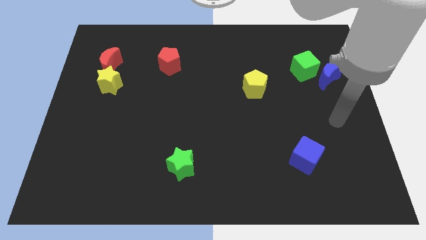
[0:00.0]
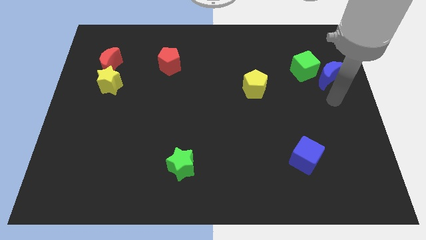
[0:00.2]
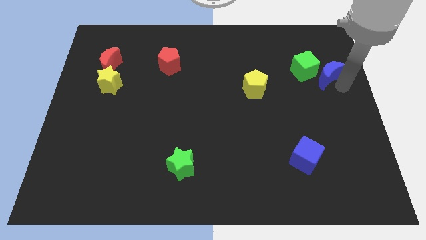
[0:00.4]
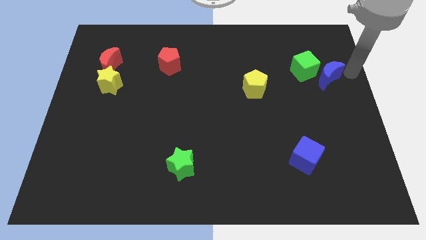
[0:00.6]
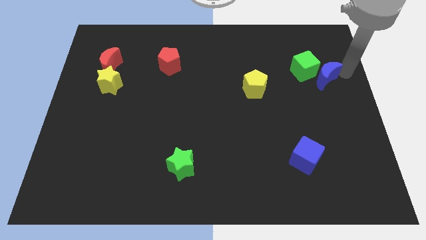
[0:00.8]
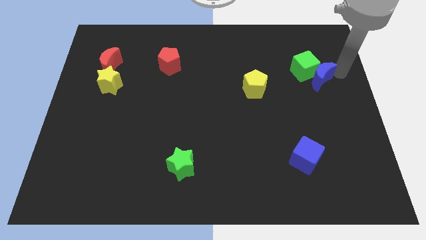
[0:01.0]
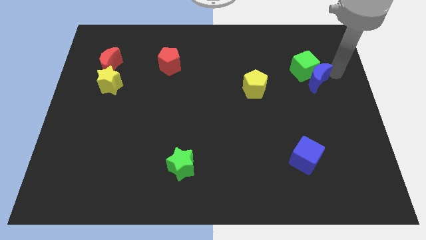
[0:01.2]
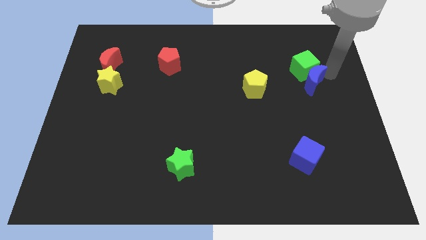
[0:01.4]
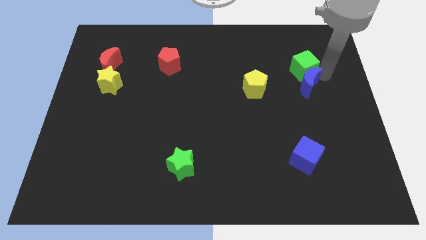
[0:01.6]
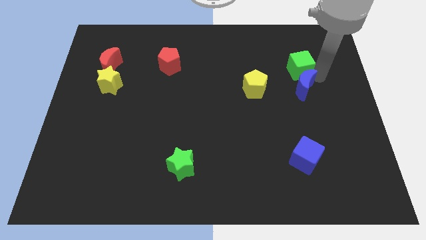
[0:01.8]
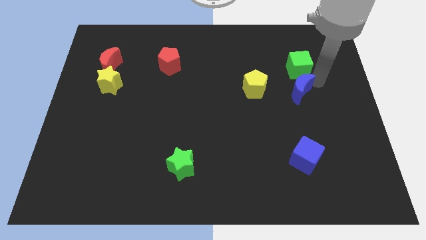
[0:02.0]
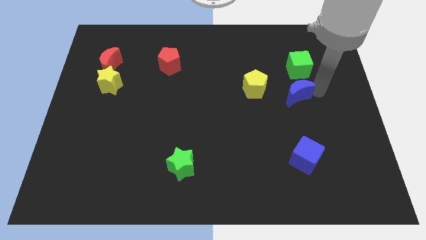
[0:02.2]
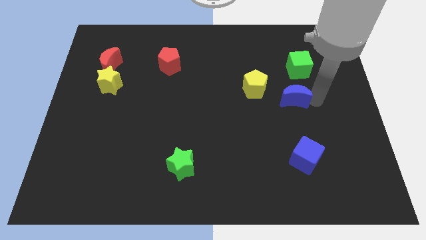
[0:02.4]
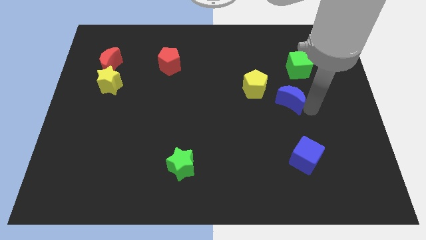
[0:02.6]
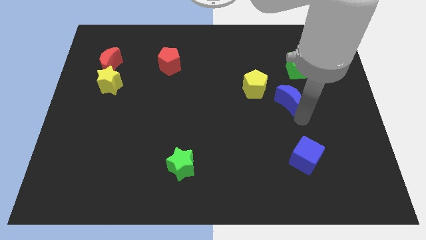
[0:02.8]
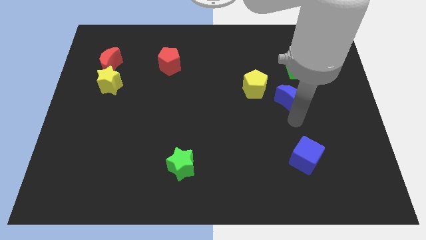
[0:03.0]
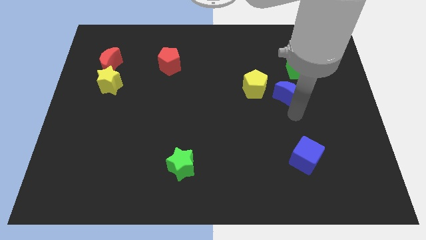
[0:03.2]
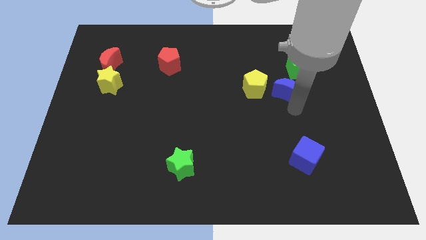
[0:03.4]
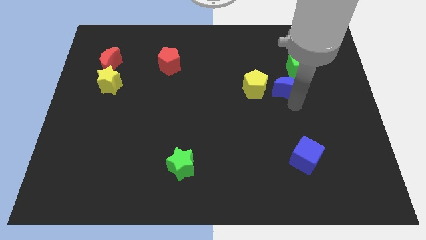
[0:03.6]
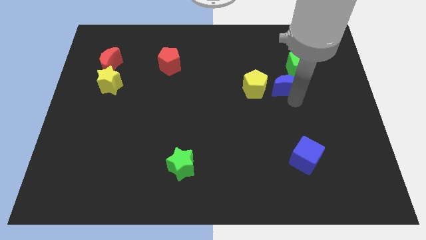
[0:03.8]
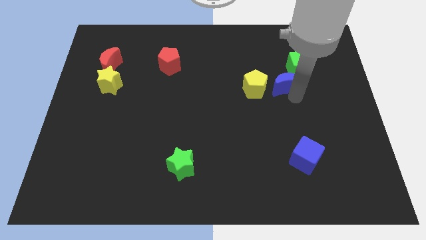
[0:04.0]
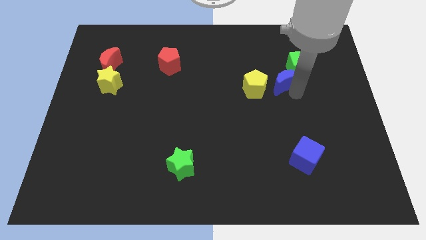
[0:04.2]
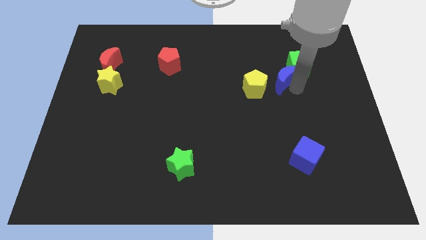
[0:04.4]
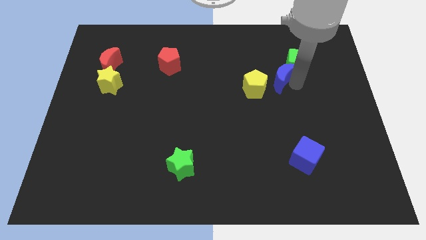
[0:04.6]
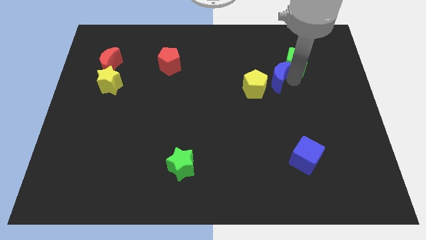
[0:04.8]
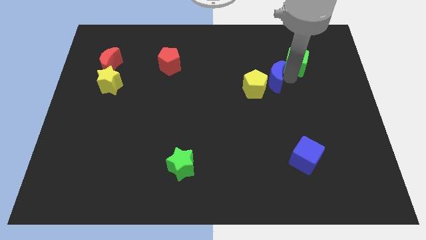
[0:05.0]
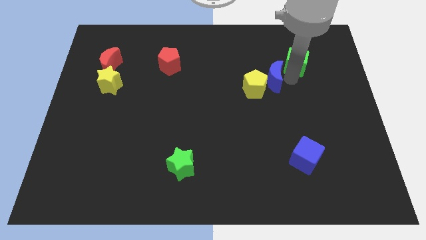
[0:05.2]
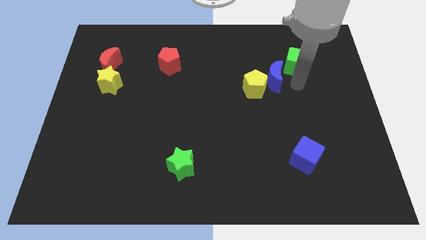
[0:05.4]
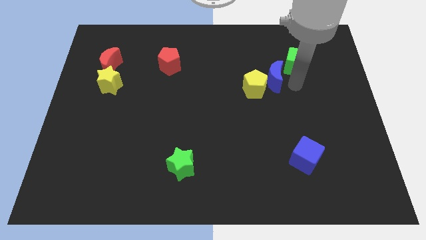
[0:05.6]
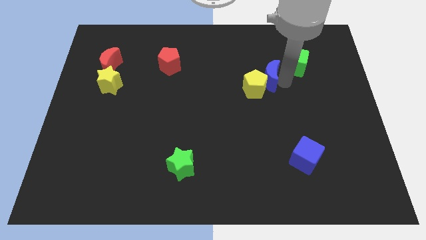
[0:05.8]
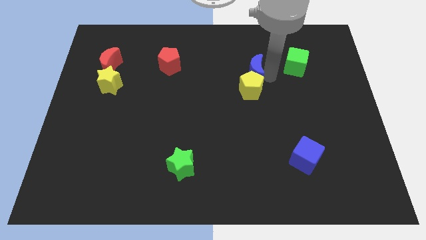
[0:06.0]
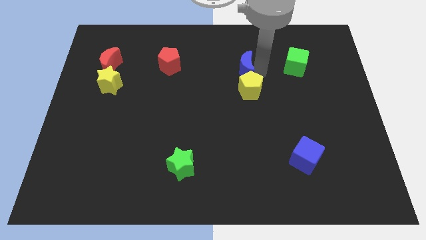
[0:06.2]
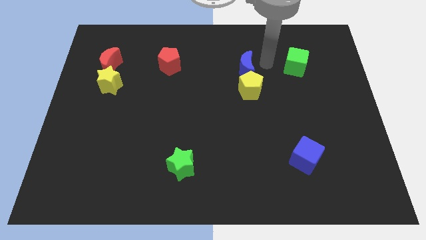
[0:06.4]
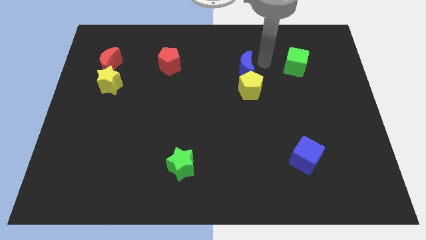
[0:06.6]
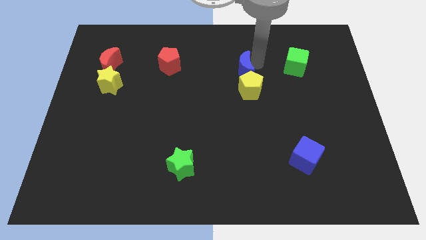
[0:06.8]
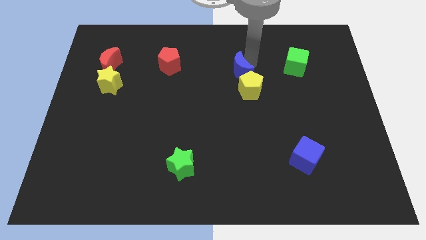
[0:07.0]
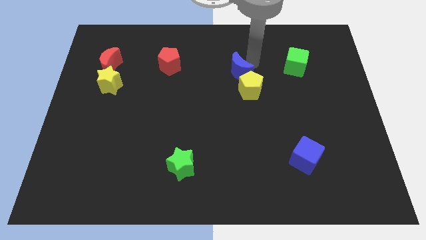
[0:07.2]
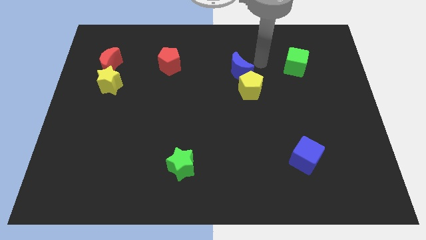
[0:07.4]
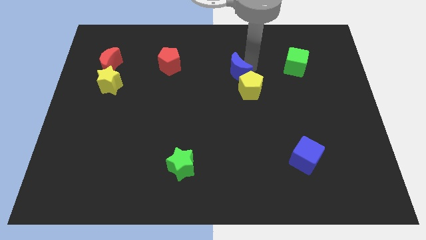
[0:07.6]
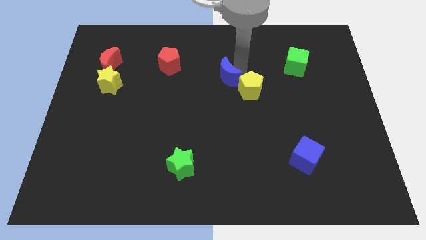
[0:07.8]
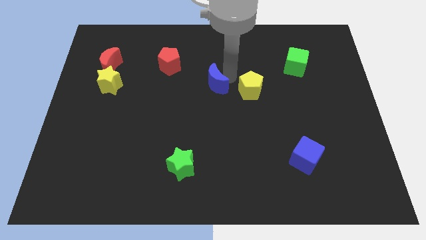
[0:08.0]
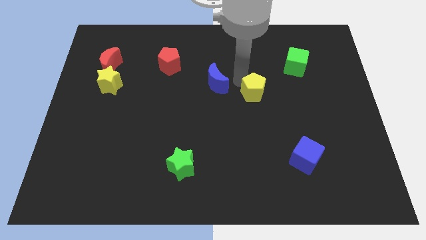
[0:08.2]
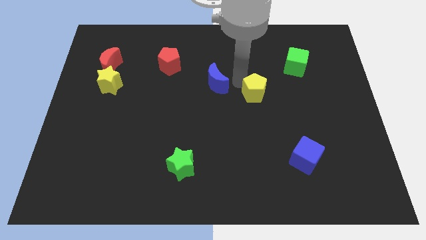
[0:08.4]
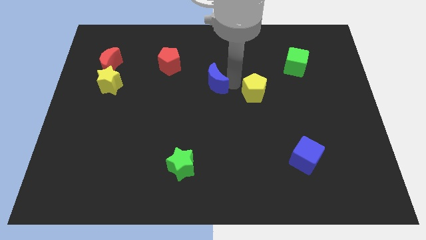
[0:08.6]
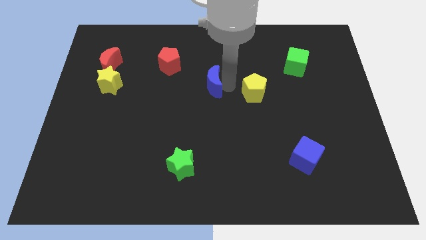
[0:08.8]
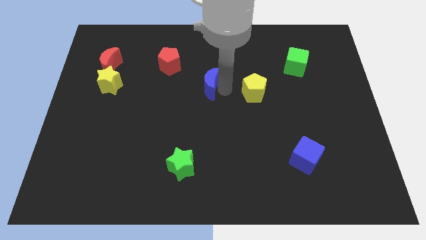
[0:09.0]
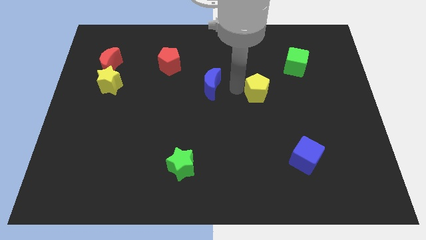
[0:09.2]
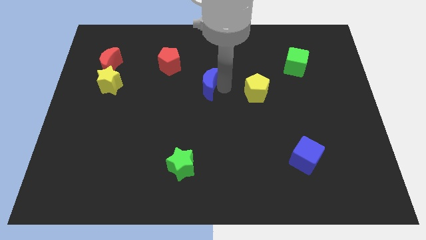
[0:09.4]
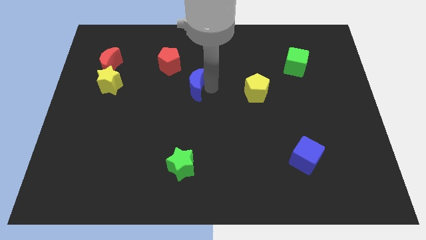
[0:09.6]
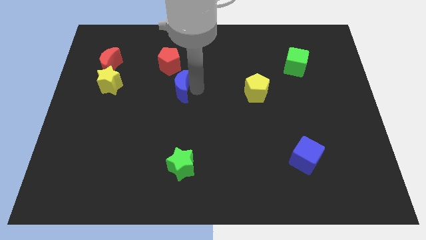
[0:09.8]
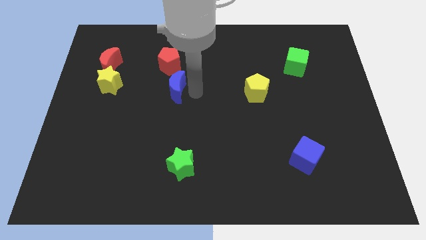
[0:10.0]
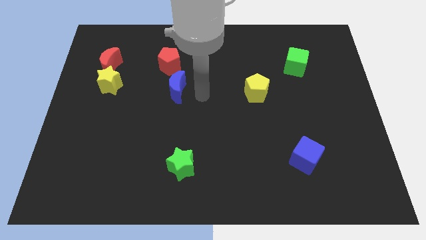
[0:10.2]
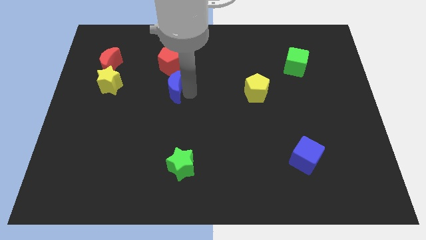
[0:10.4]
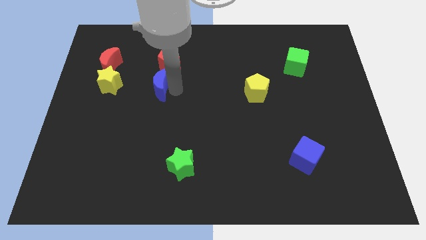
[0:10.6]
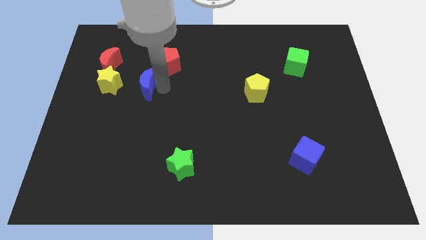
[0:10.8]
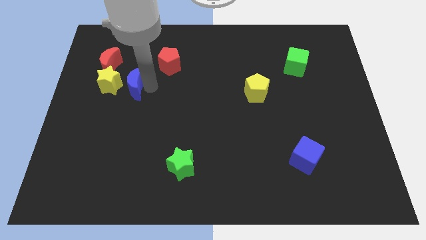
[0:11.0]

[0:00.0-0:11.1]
put the blue moon next to the yellow star
